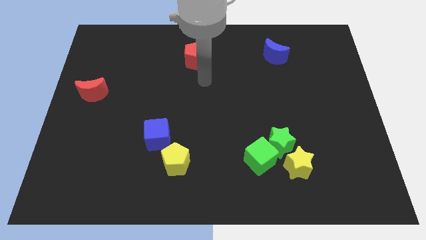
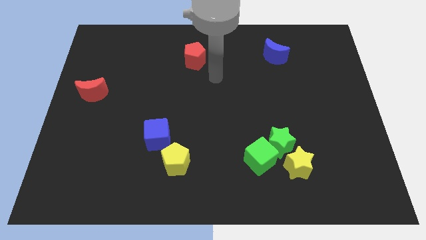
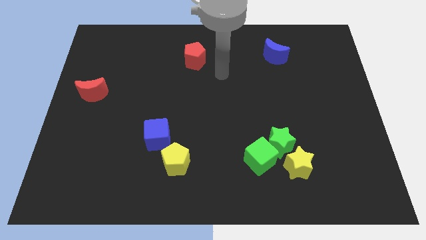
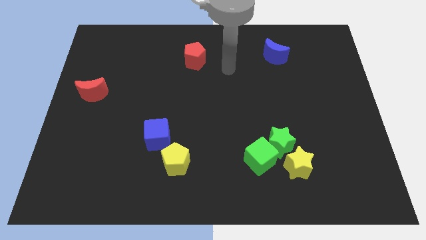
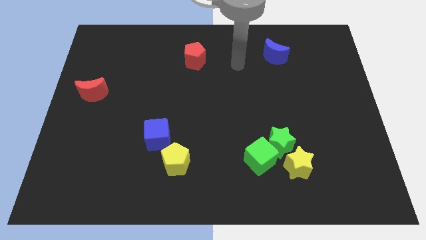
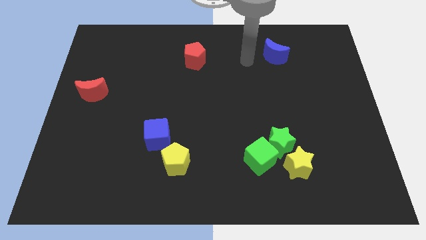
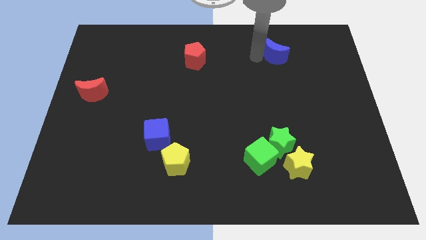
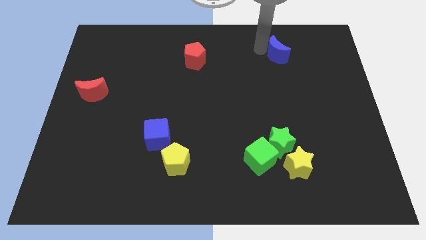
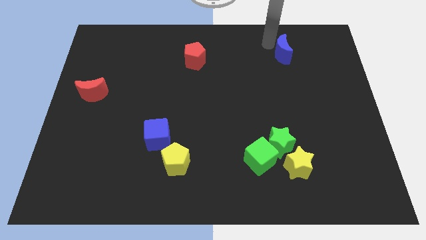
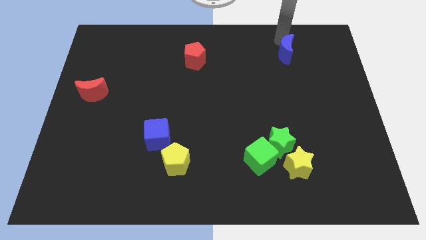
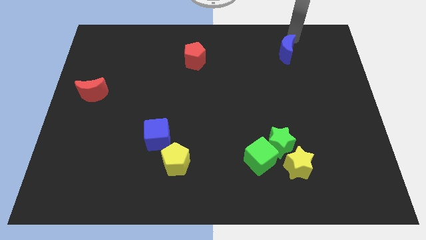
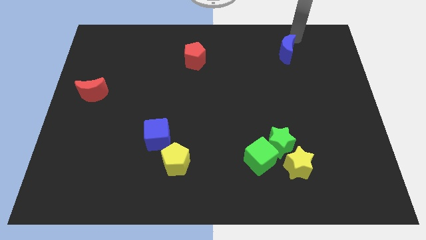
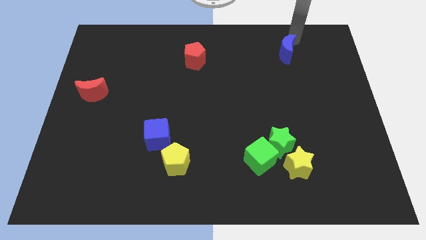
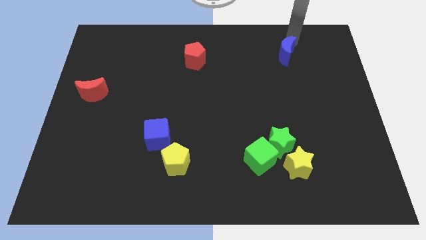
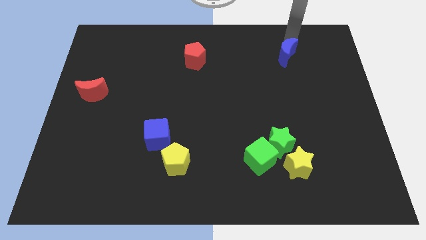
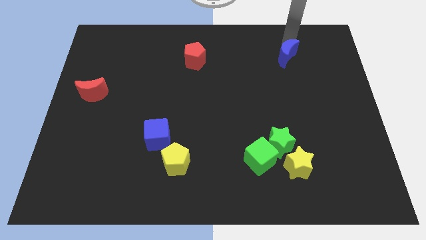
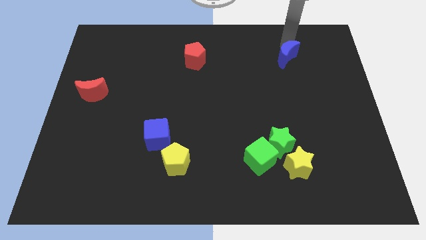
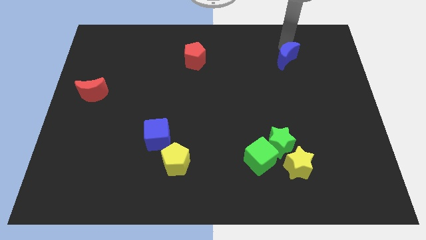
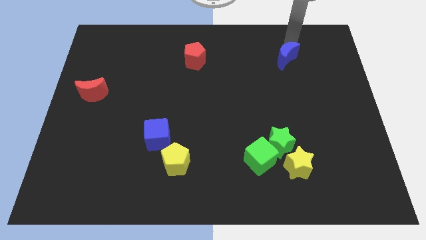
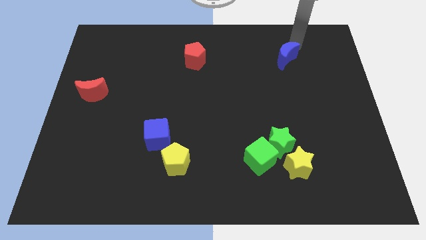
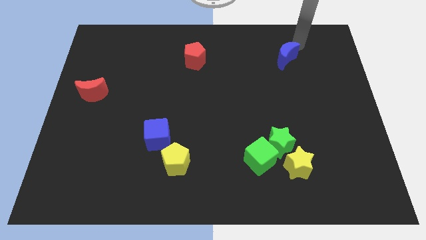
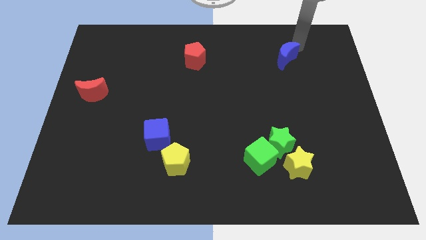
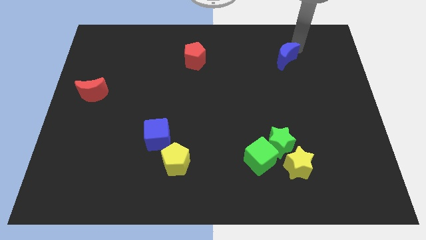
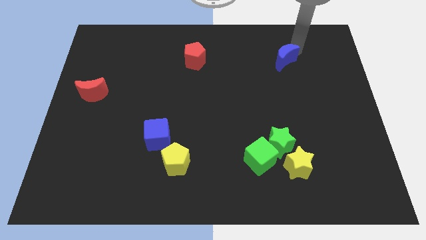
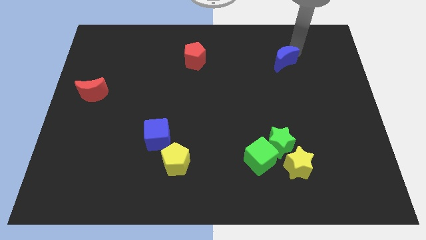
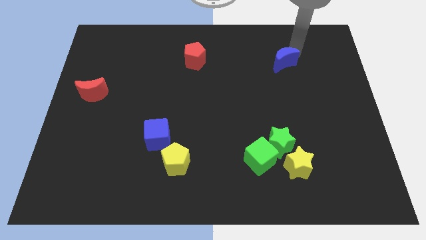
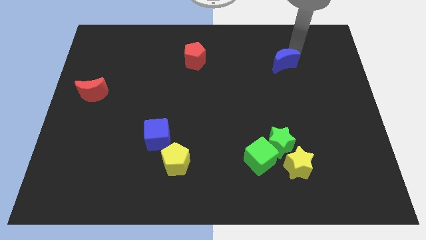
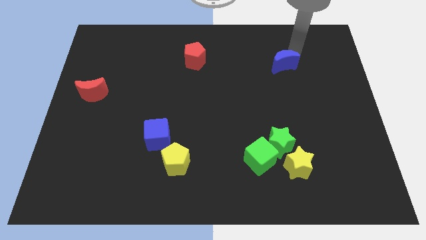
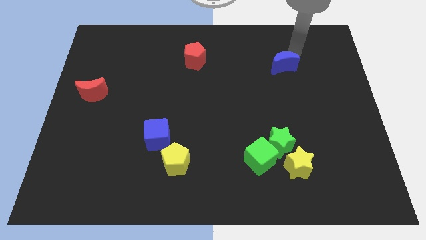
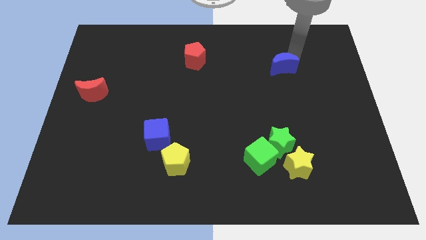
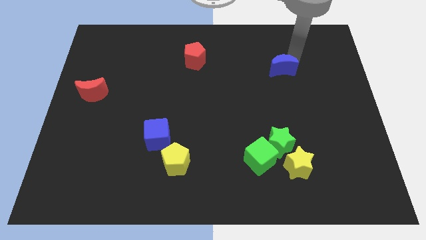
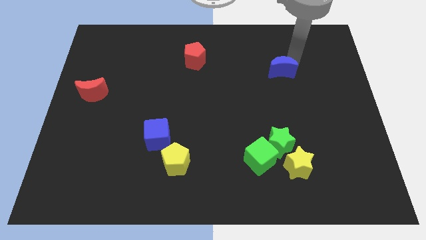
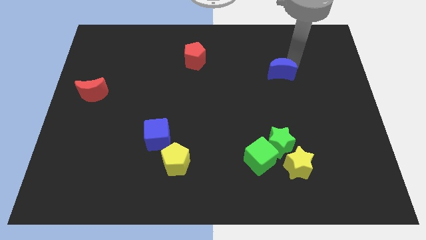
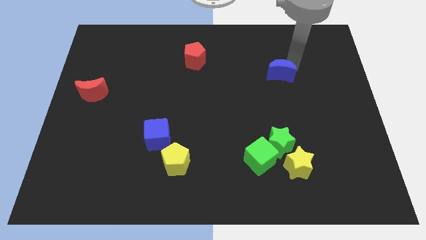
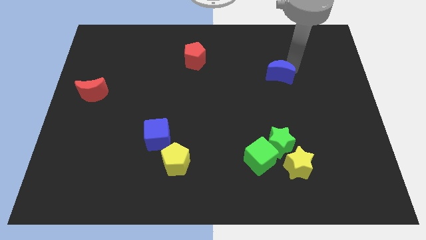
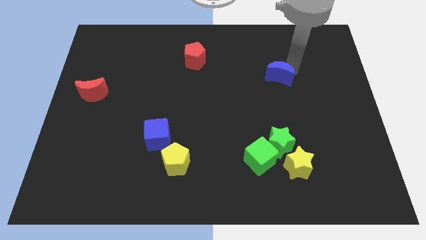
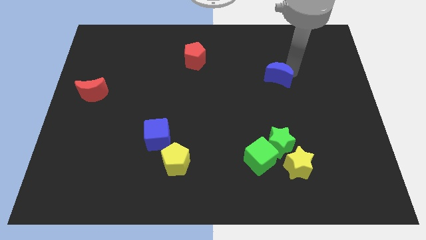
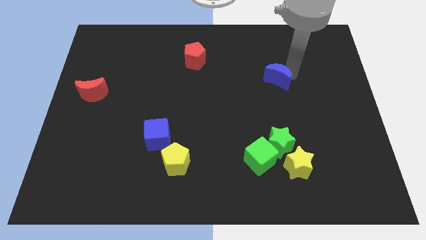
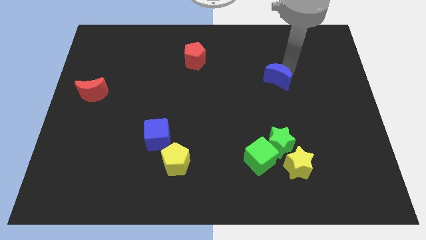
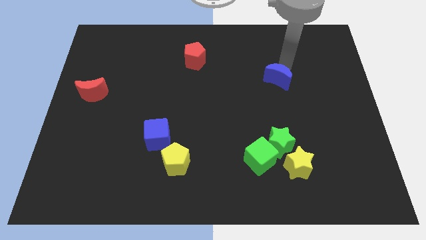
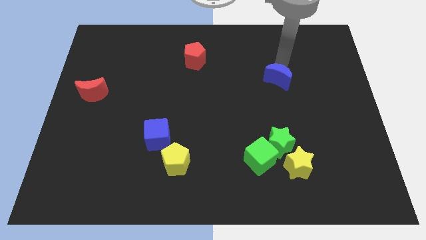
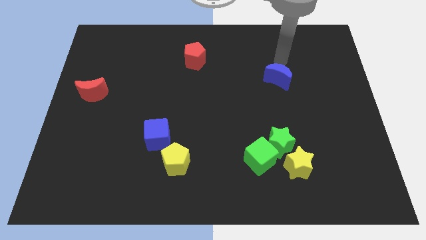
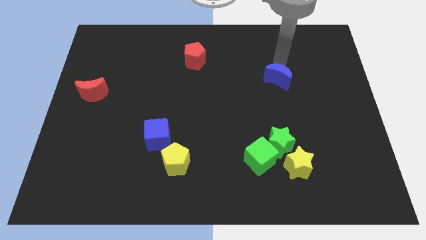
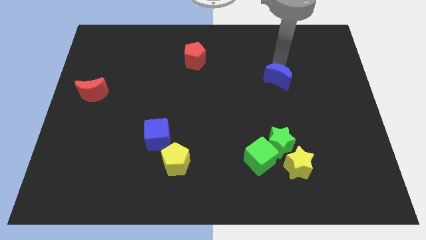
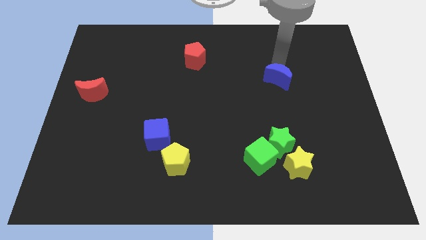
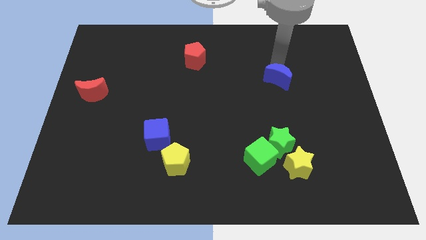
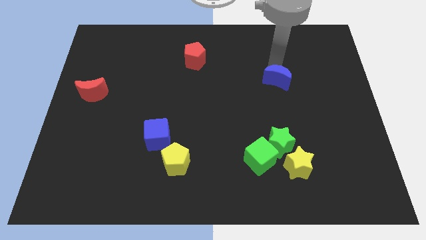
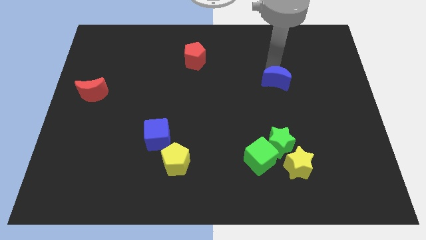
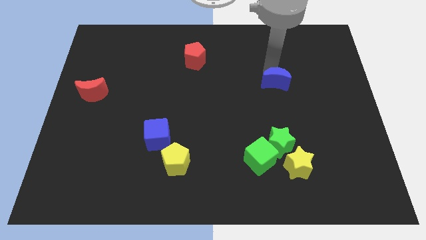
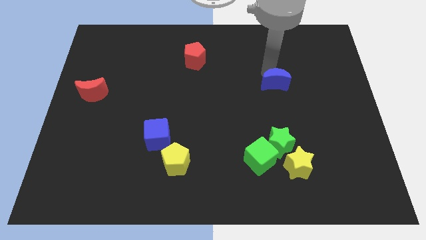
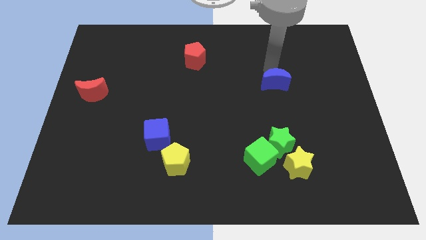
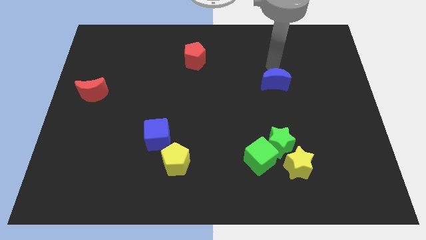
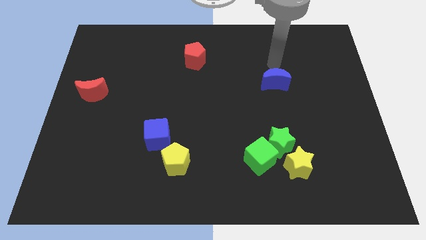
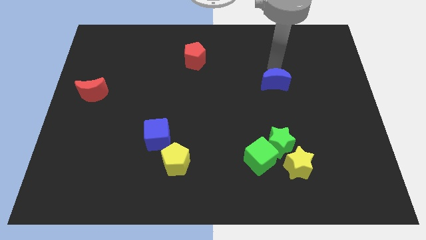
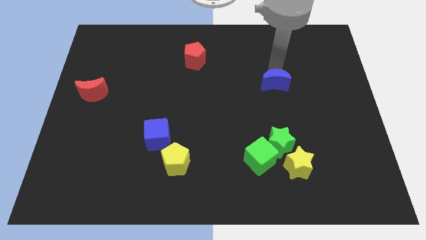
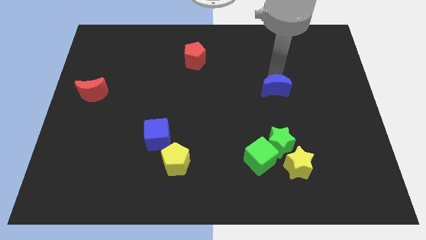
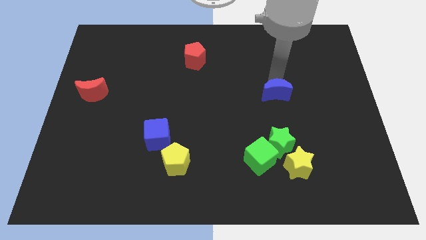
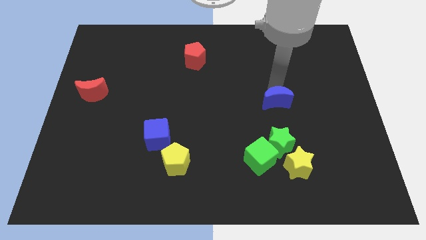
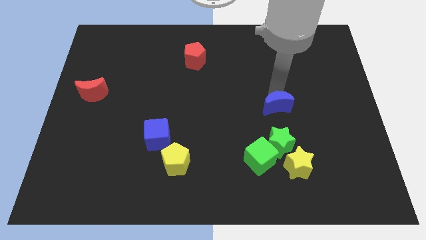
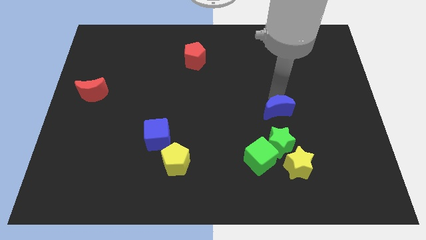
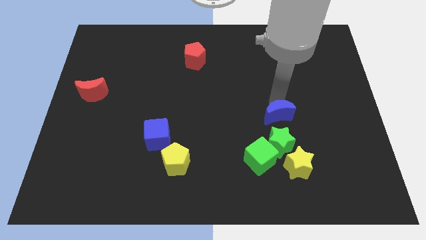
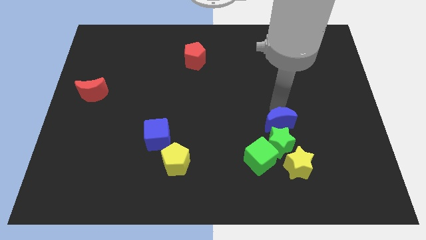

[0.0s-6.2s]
put the blue moon to the green star

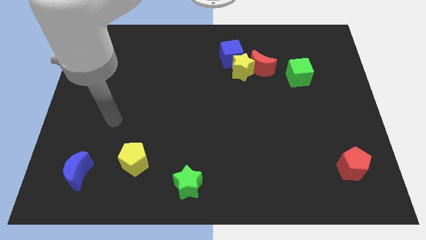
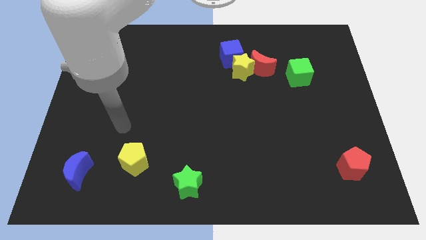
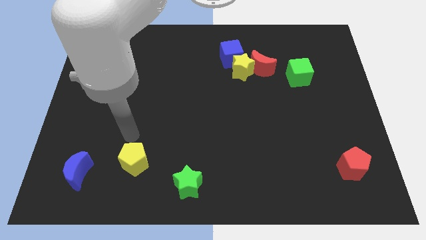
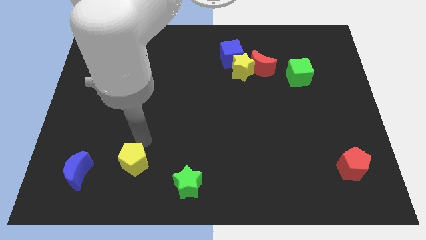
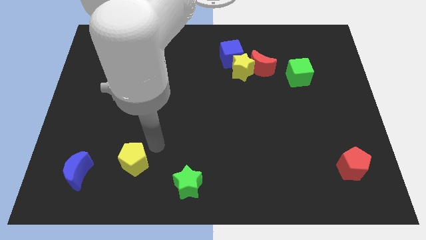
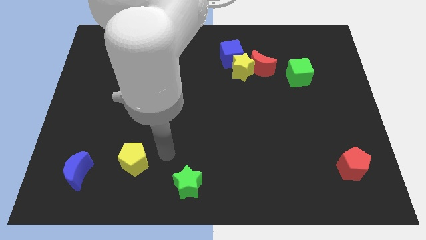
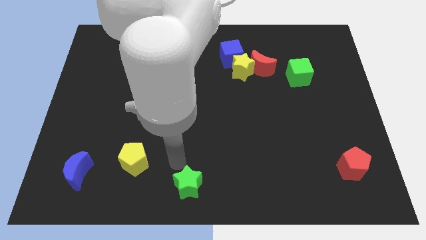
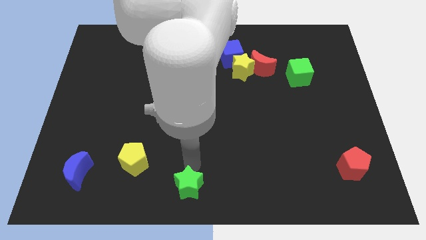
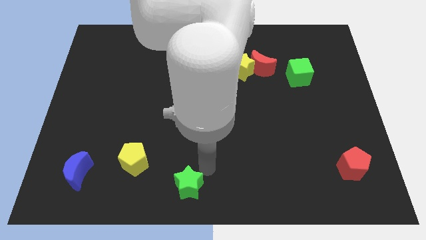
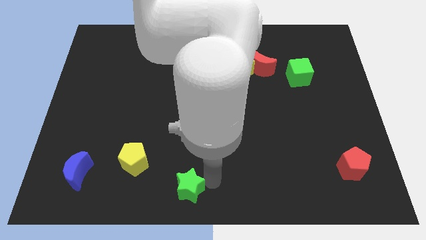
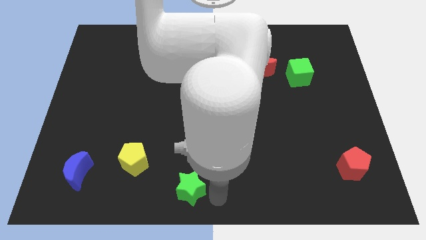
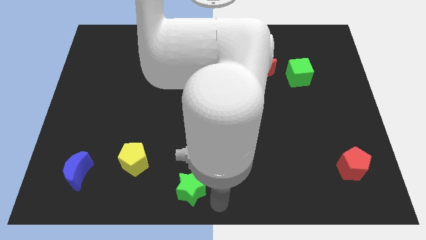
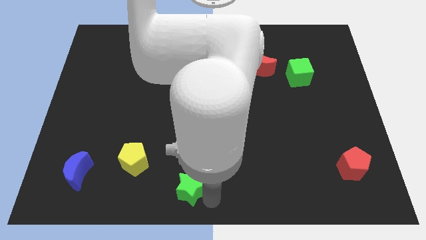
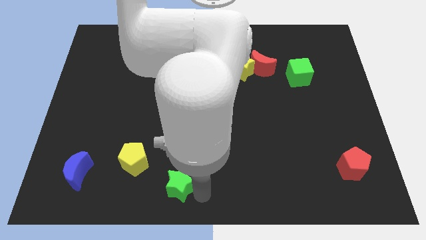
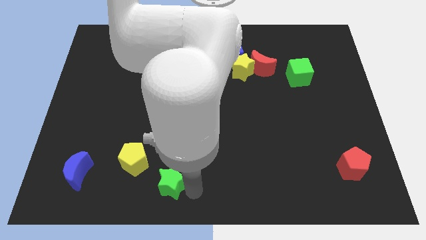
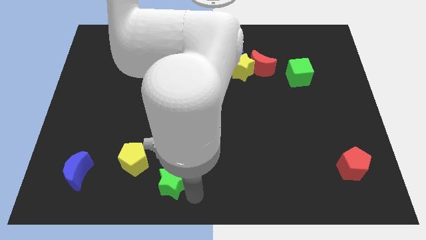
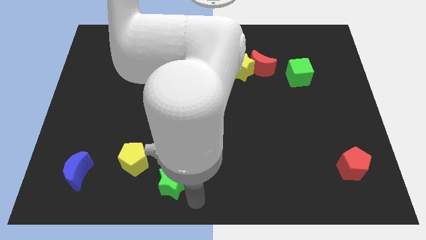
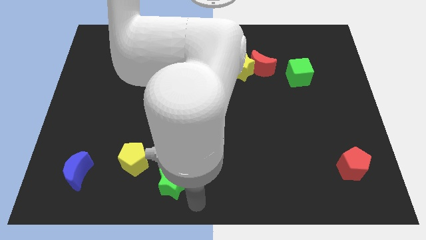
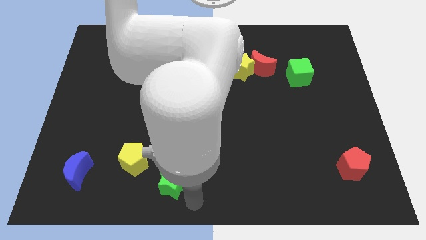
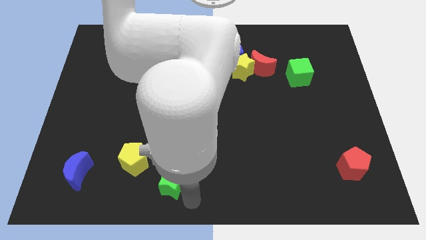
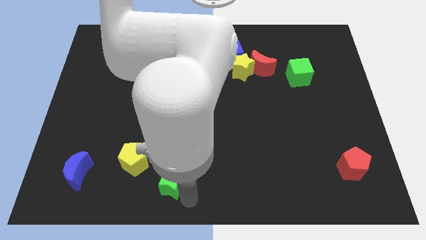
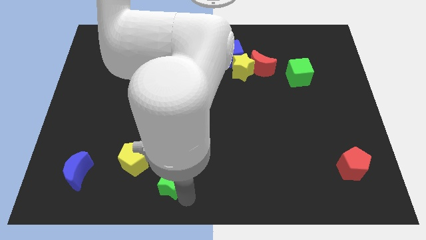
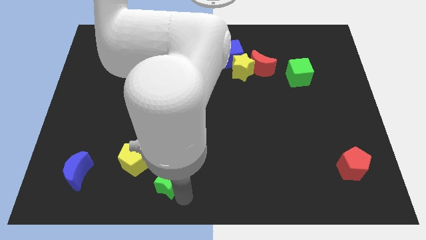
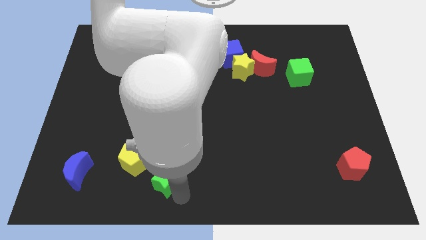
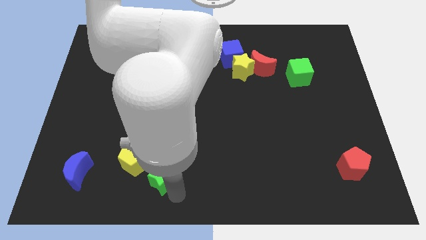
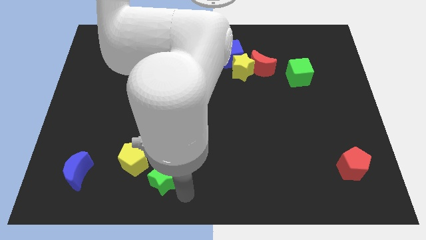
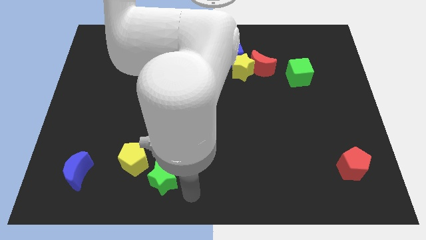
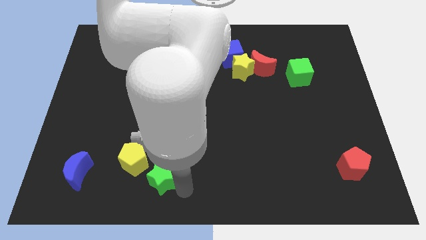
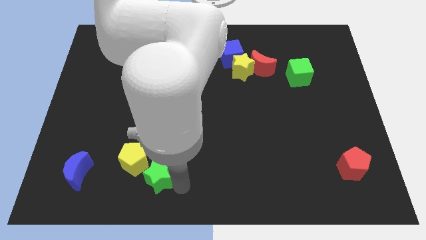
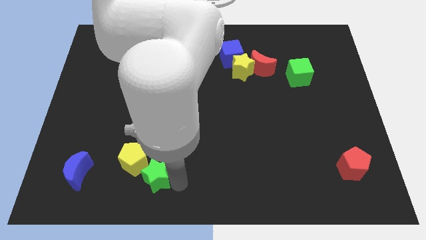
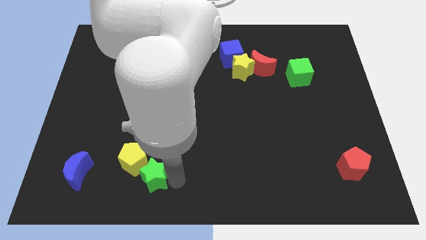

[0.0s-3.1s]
push the green star close to the yellow pentagon
